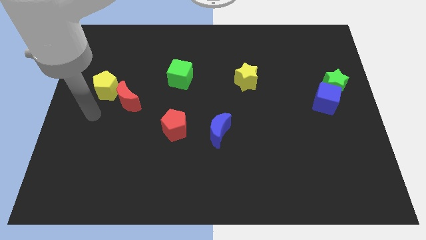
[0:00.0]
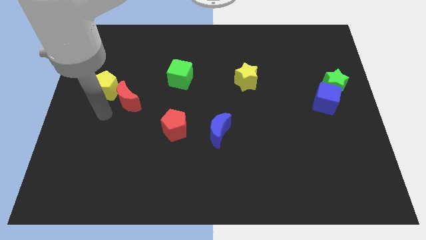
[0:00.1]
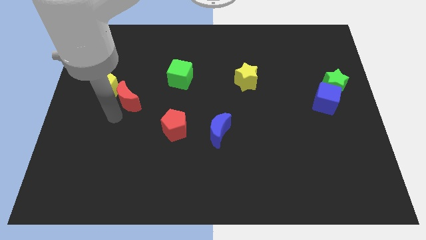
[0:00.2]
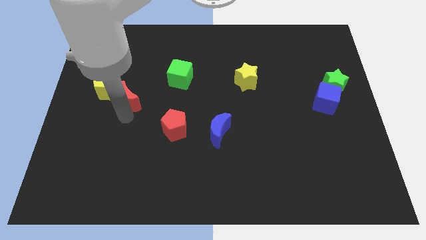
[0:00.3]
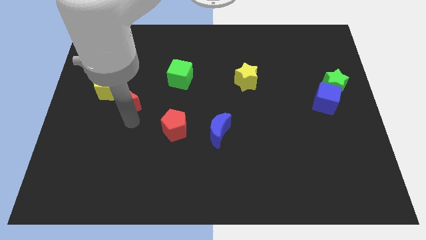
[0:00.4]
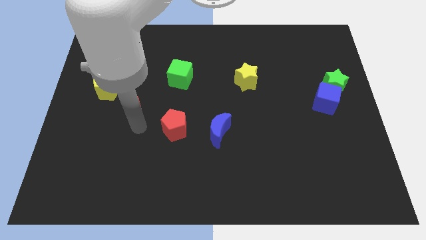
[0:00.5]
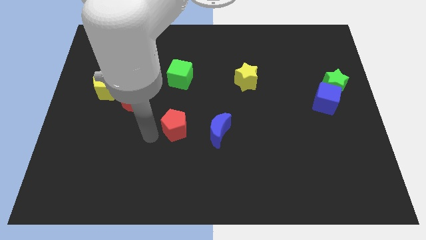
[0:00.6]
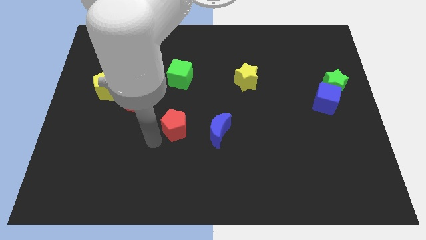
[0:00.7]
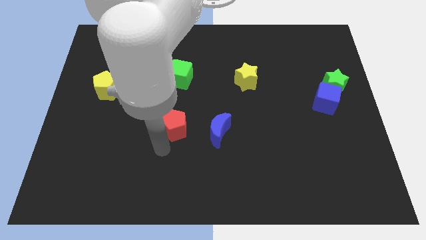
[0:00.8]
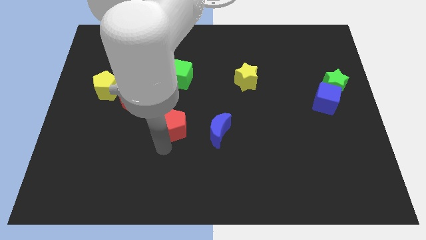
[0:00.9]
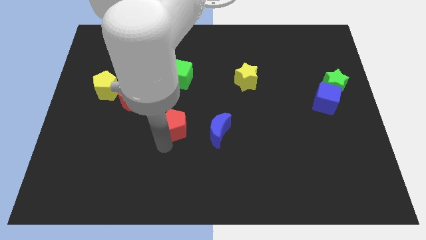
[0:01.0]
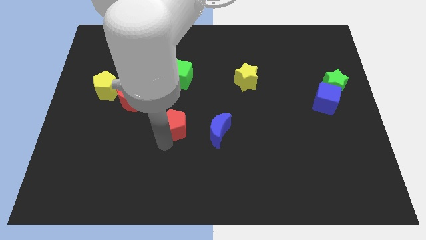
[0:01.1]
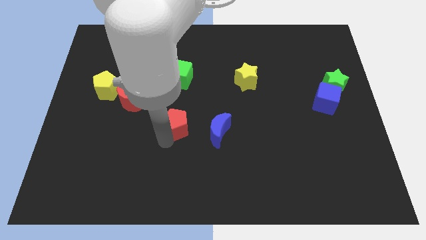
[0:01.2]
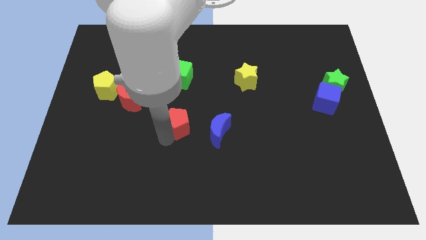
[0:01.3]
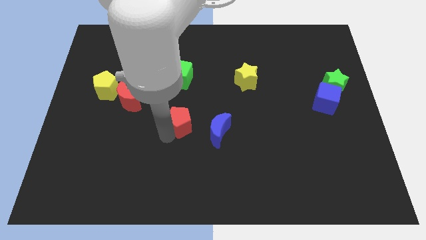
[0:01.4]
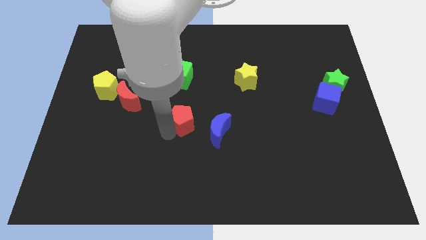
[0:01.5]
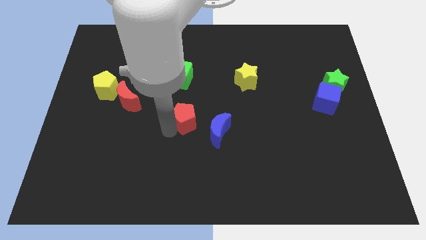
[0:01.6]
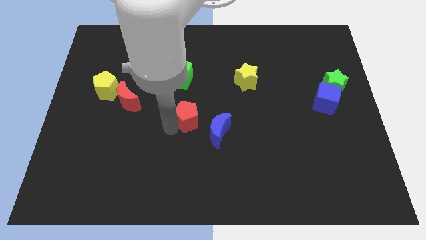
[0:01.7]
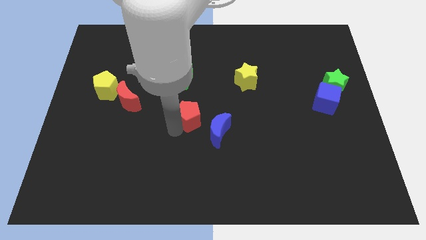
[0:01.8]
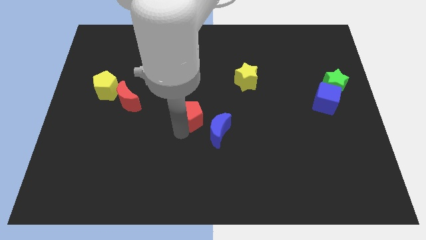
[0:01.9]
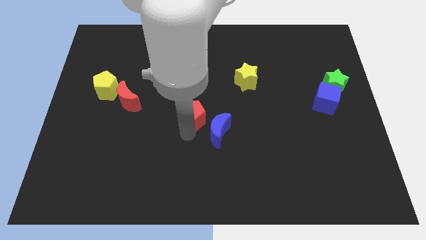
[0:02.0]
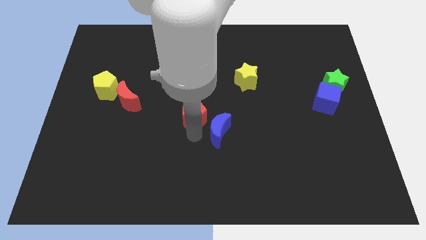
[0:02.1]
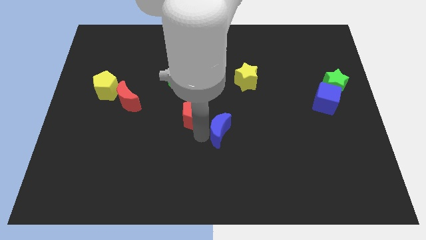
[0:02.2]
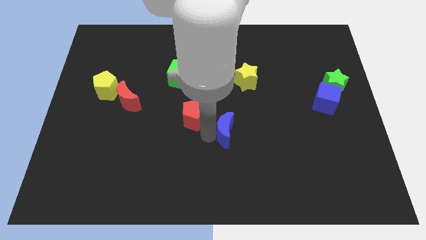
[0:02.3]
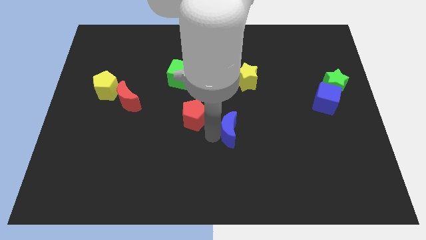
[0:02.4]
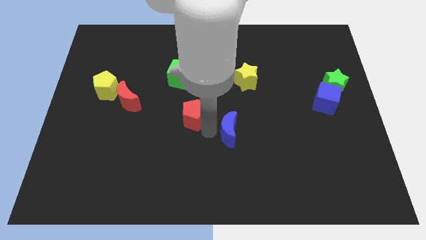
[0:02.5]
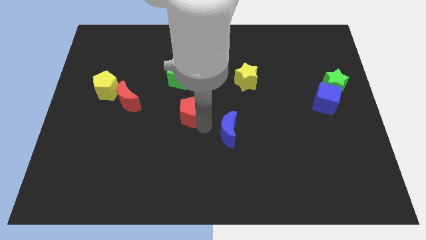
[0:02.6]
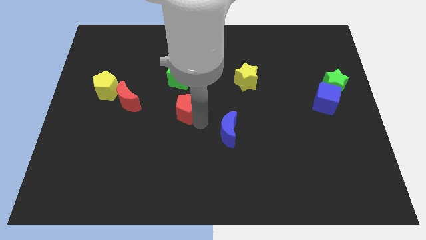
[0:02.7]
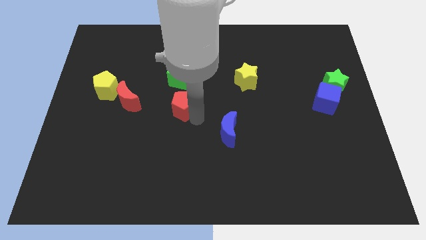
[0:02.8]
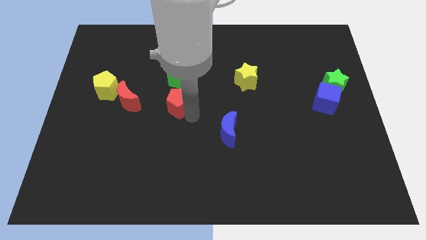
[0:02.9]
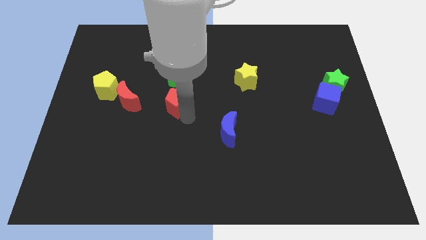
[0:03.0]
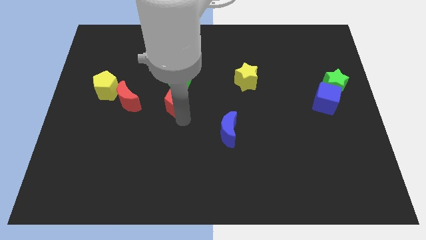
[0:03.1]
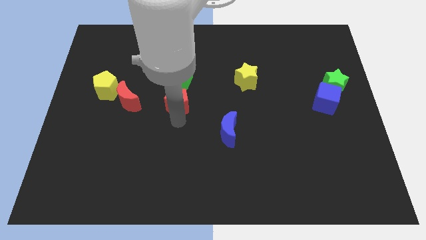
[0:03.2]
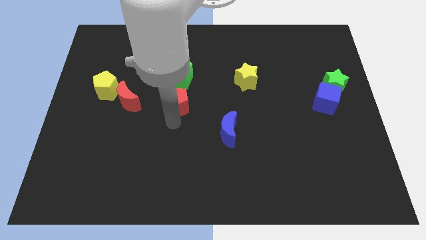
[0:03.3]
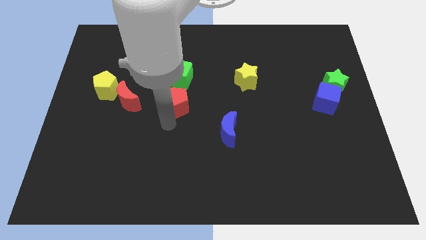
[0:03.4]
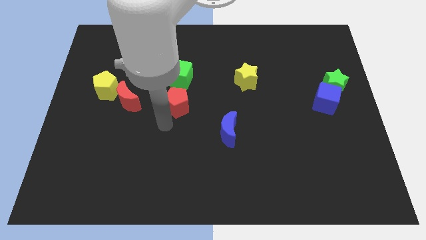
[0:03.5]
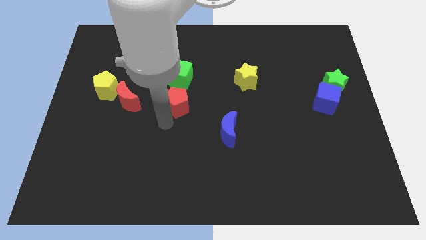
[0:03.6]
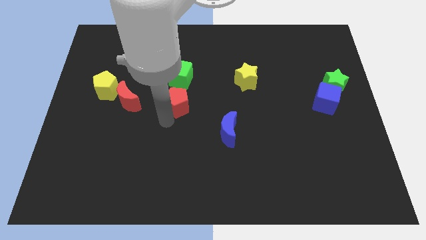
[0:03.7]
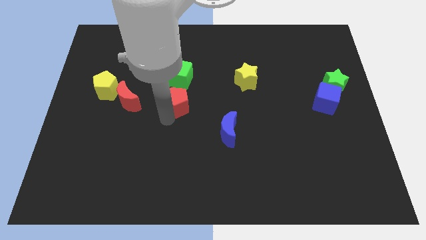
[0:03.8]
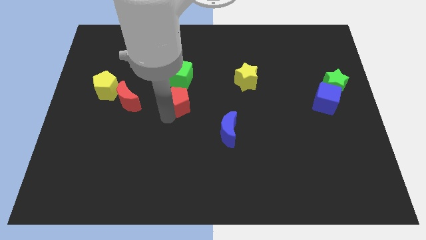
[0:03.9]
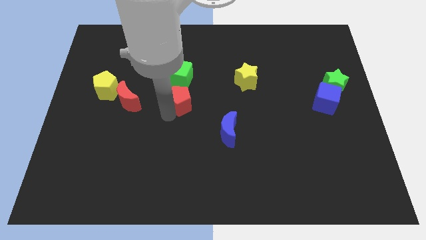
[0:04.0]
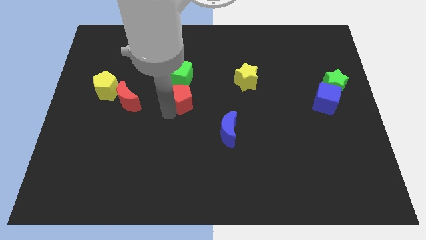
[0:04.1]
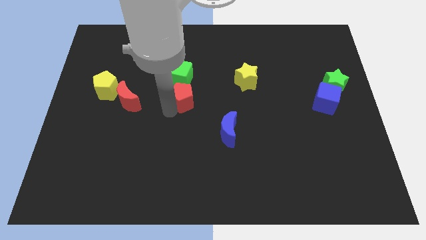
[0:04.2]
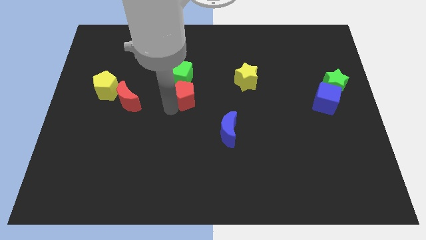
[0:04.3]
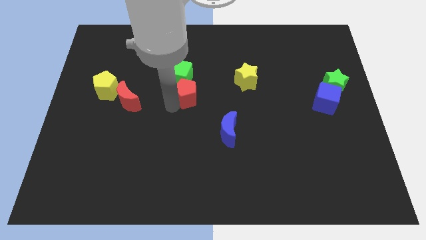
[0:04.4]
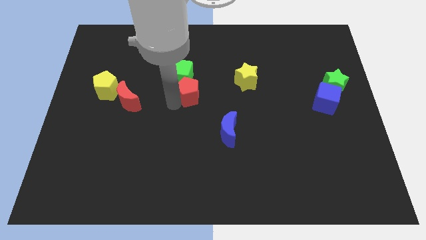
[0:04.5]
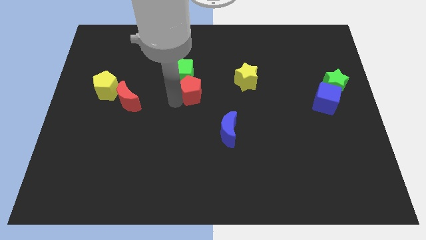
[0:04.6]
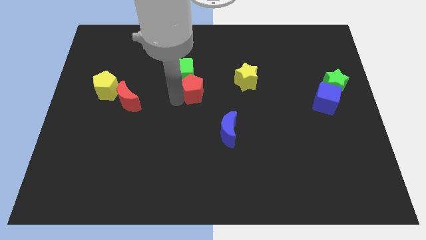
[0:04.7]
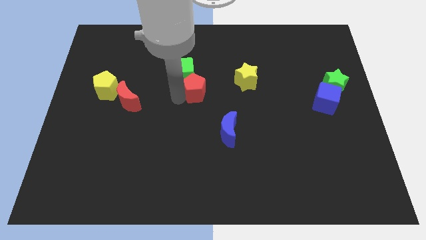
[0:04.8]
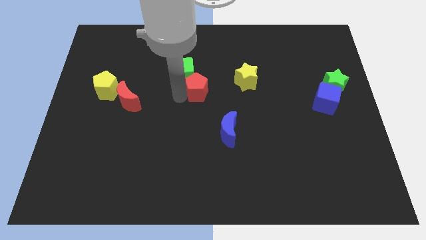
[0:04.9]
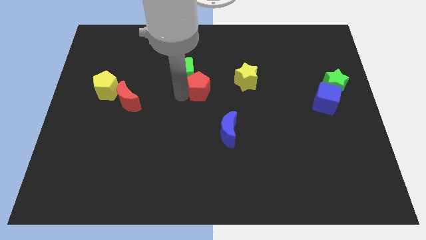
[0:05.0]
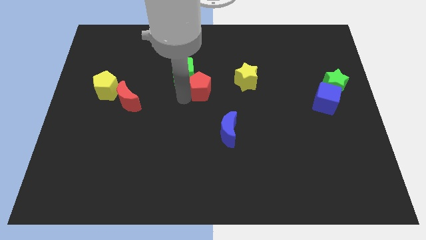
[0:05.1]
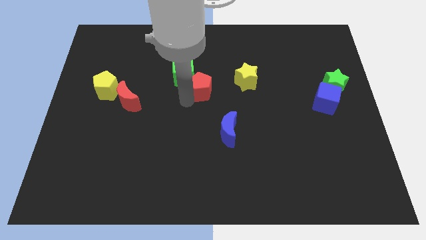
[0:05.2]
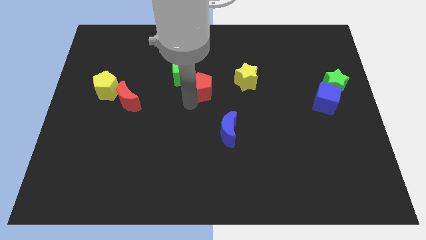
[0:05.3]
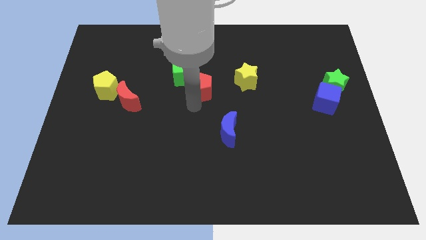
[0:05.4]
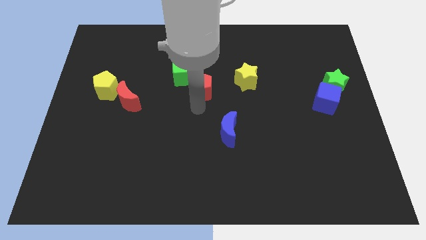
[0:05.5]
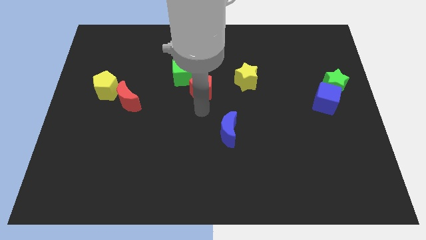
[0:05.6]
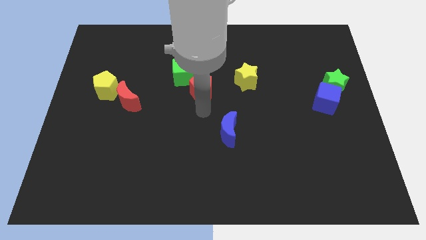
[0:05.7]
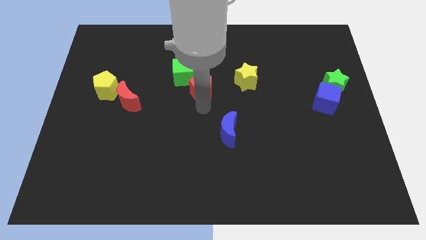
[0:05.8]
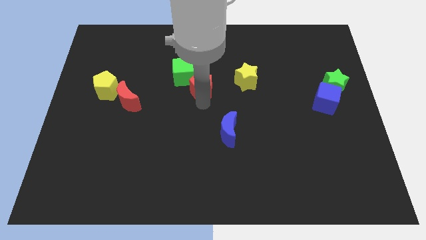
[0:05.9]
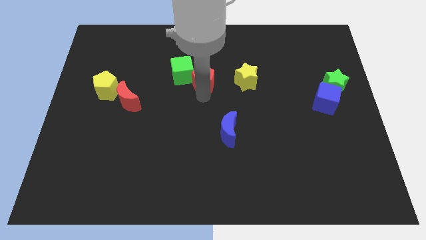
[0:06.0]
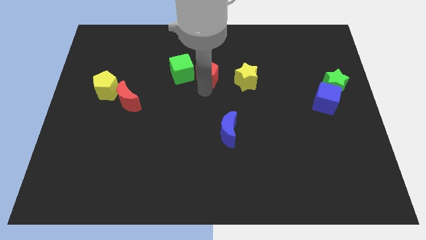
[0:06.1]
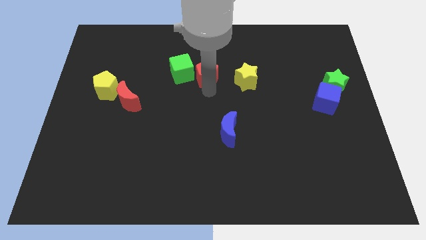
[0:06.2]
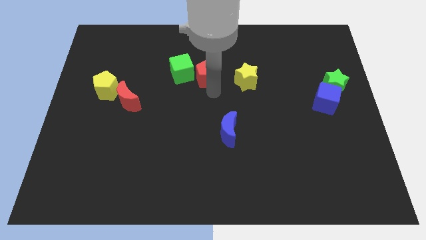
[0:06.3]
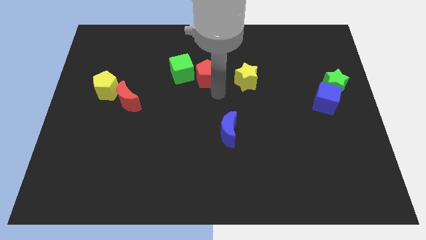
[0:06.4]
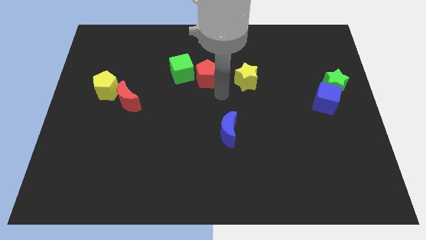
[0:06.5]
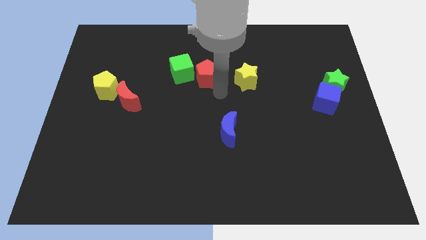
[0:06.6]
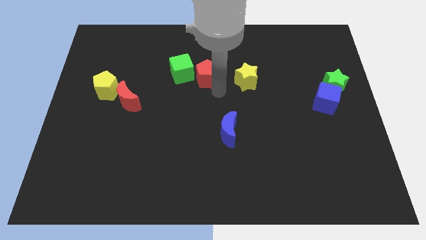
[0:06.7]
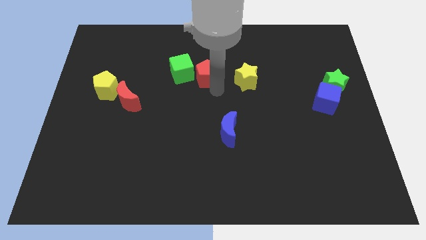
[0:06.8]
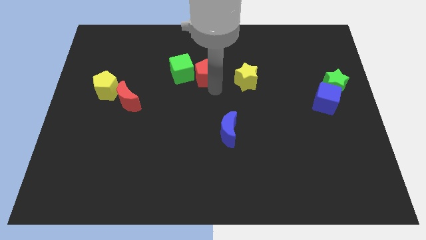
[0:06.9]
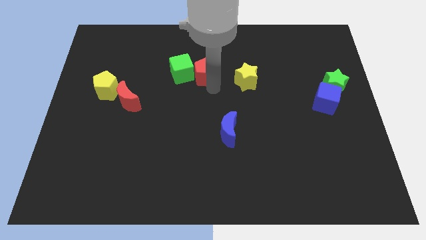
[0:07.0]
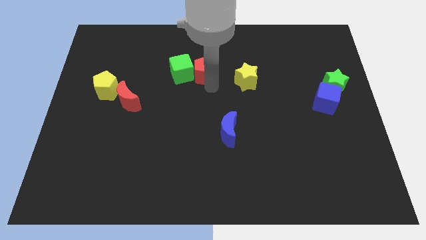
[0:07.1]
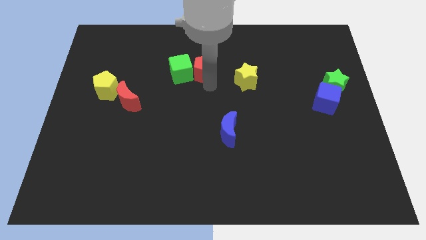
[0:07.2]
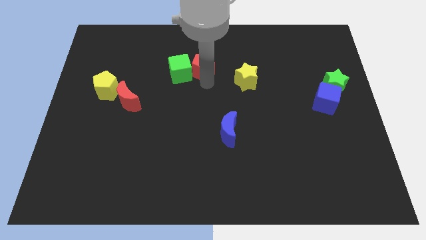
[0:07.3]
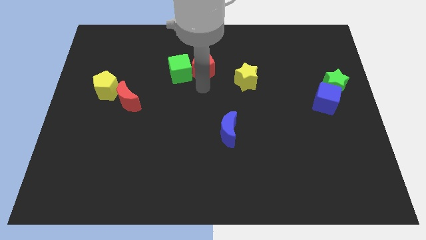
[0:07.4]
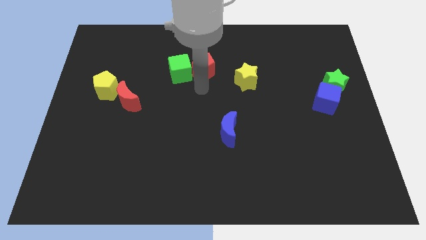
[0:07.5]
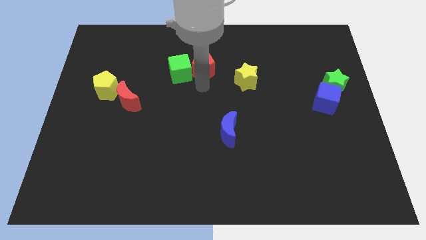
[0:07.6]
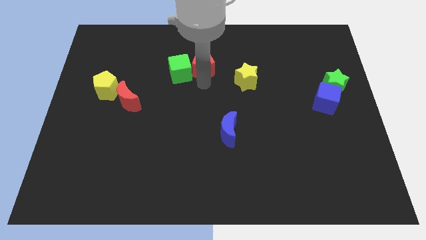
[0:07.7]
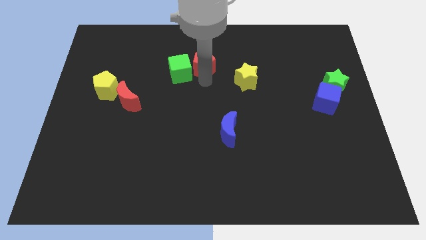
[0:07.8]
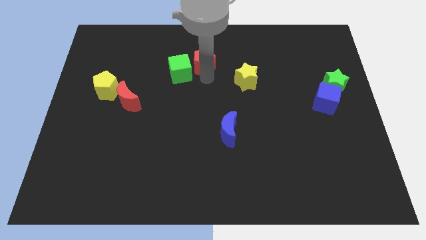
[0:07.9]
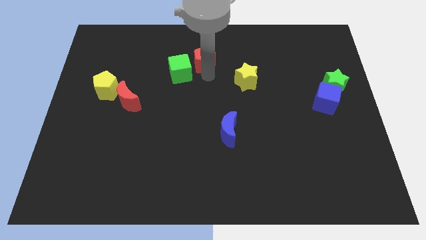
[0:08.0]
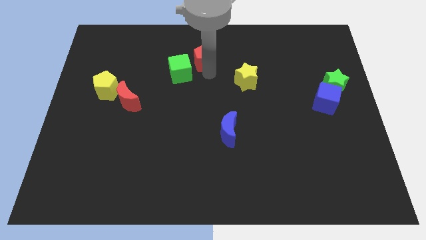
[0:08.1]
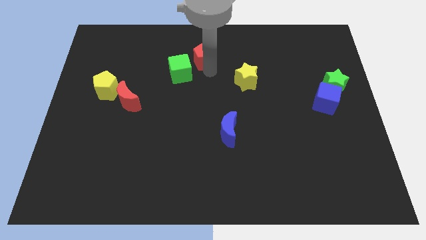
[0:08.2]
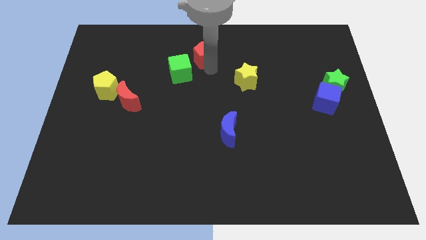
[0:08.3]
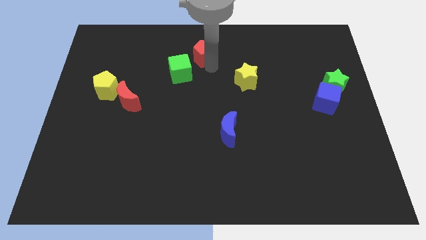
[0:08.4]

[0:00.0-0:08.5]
push the red pentagon to the top side
